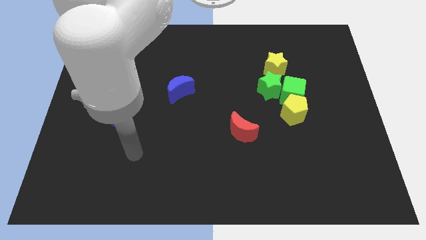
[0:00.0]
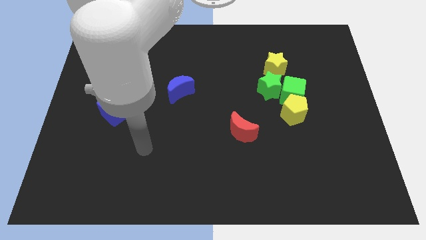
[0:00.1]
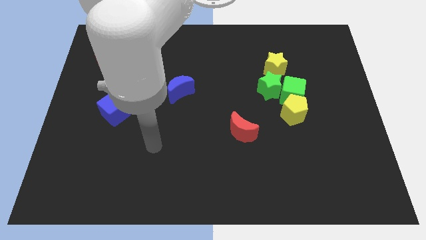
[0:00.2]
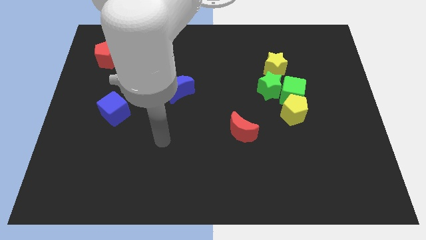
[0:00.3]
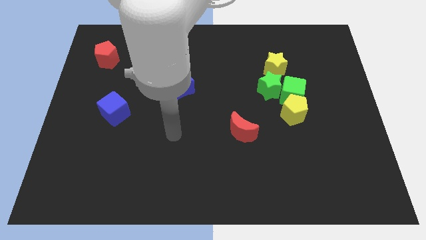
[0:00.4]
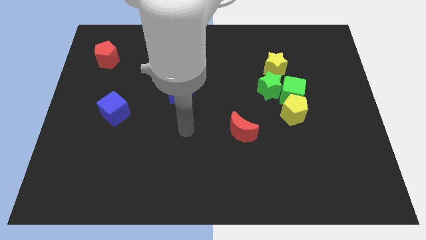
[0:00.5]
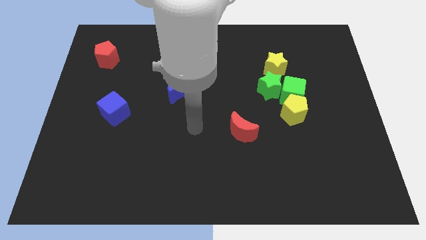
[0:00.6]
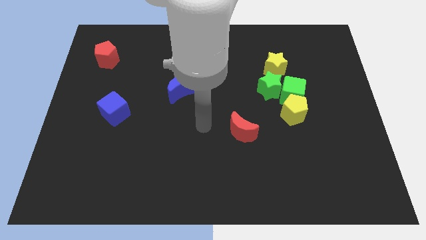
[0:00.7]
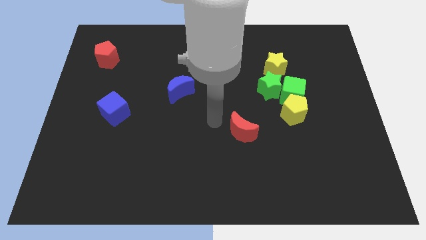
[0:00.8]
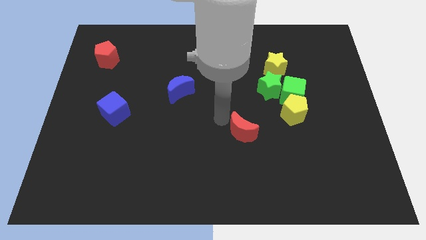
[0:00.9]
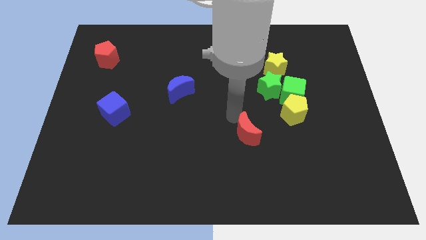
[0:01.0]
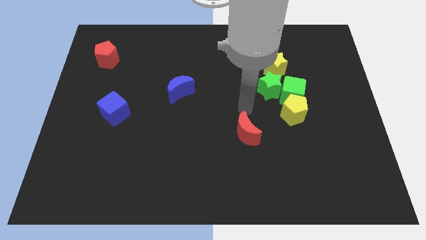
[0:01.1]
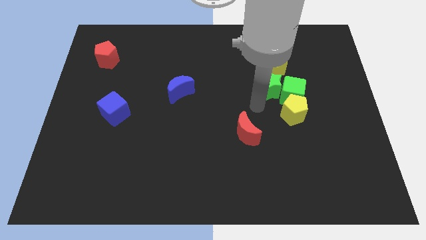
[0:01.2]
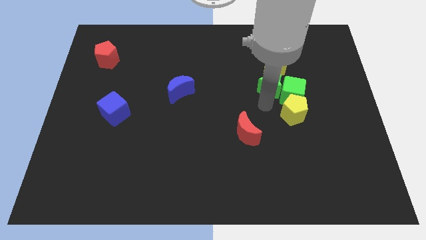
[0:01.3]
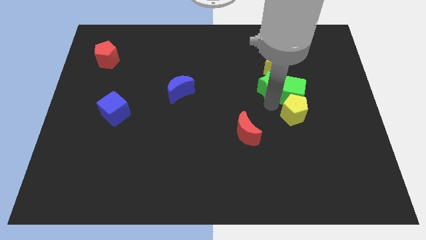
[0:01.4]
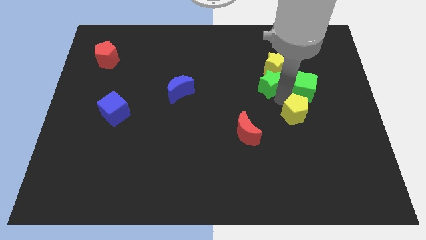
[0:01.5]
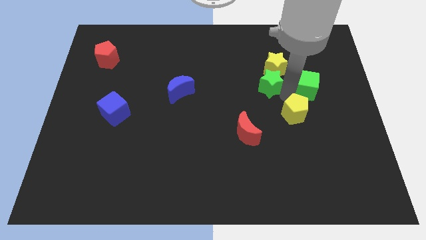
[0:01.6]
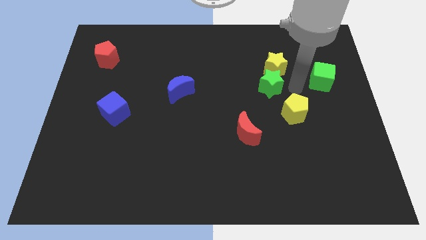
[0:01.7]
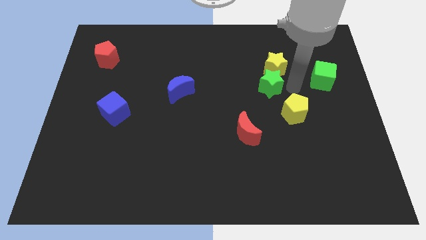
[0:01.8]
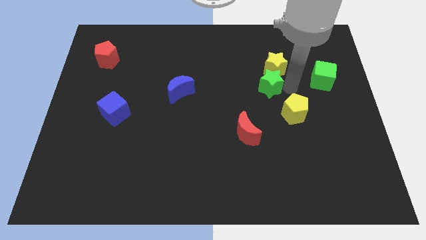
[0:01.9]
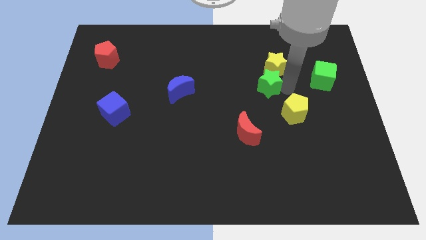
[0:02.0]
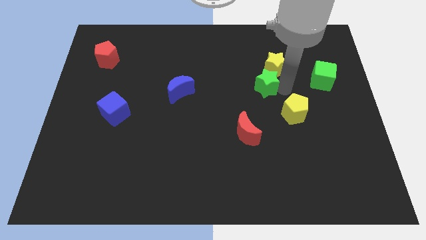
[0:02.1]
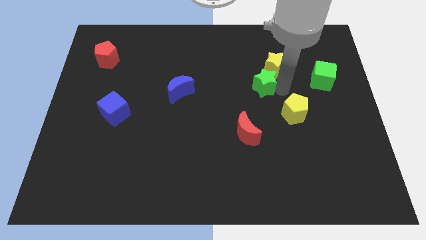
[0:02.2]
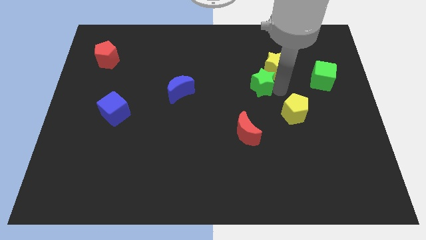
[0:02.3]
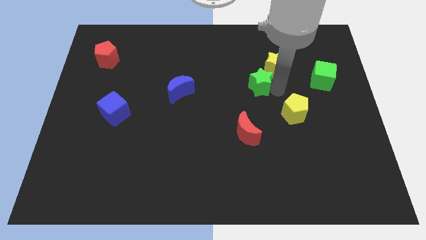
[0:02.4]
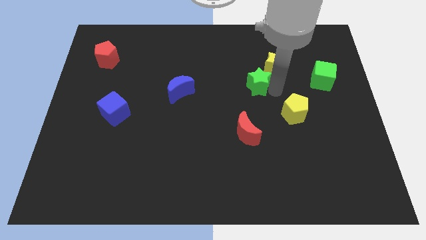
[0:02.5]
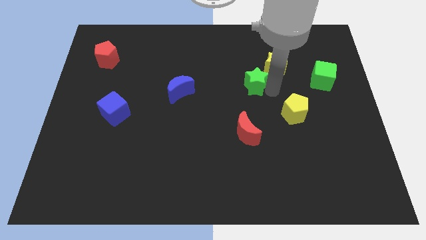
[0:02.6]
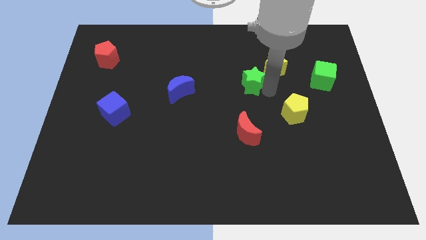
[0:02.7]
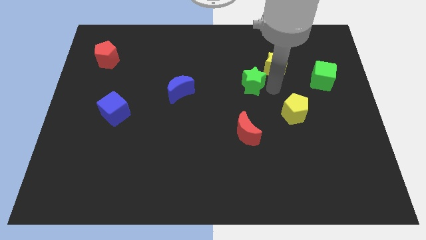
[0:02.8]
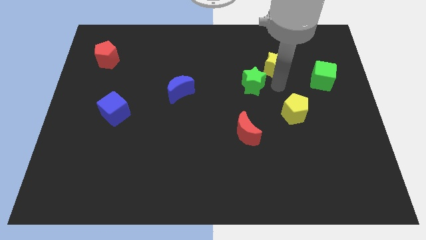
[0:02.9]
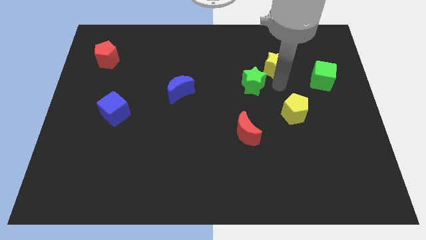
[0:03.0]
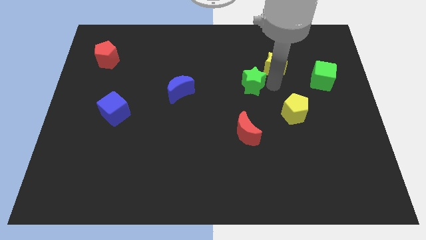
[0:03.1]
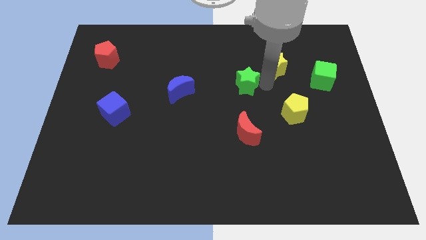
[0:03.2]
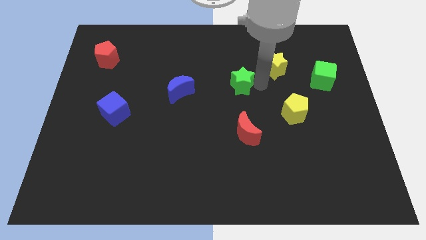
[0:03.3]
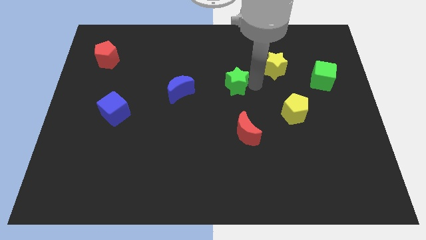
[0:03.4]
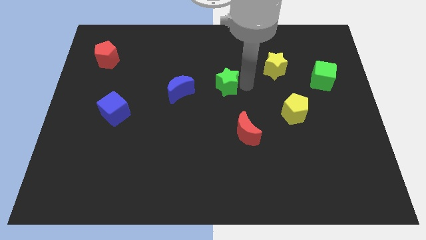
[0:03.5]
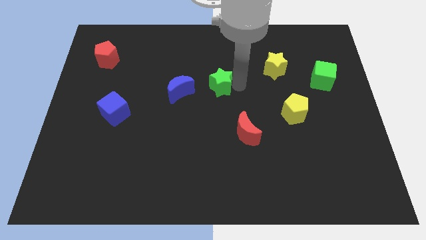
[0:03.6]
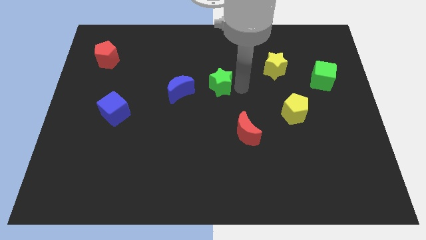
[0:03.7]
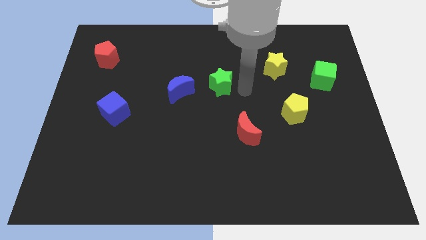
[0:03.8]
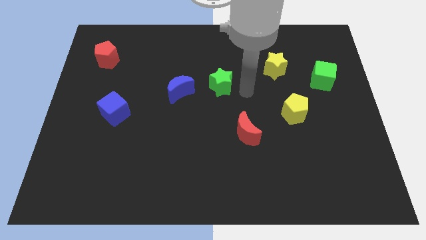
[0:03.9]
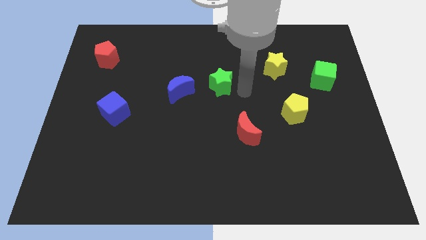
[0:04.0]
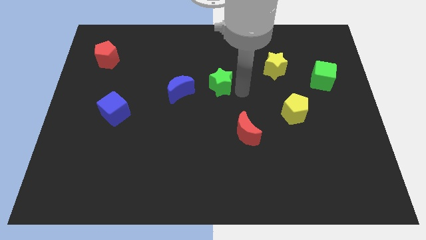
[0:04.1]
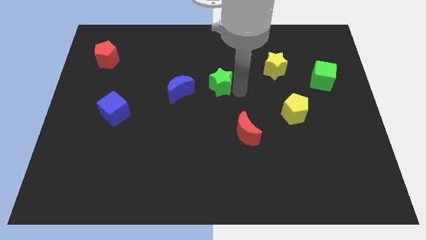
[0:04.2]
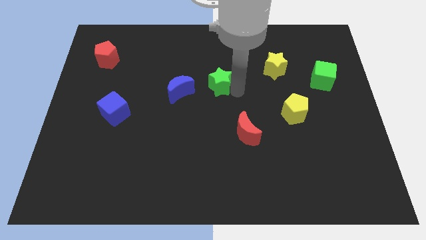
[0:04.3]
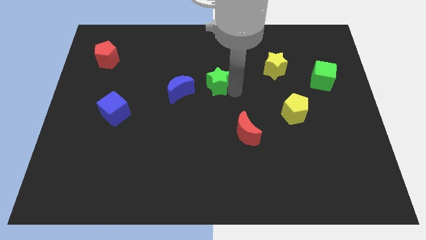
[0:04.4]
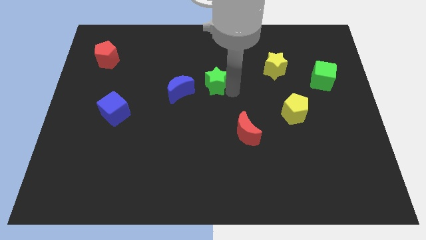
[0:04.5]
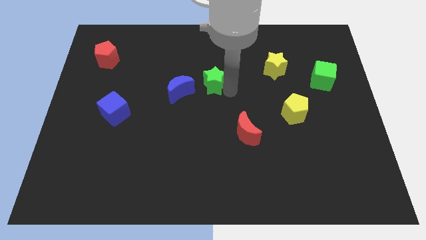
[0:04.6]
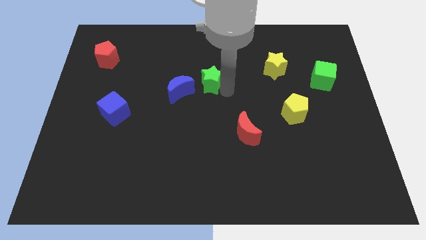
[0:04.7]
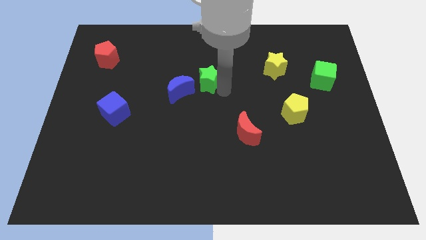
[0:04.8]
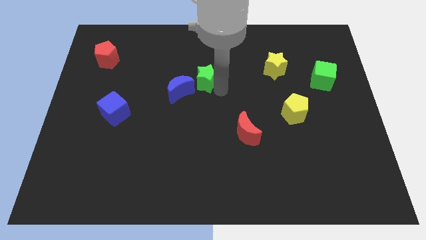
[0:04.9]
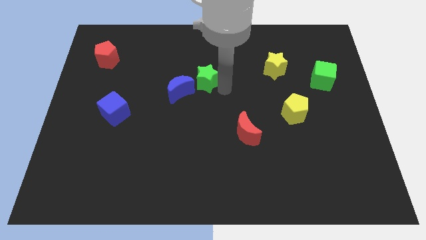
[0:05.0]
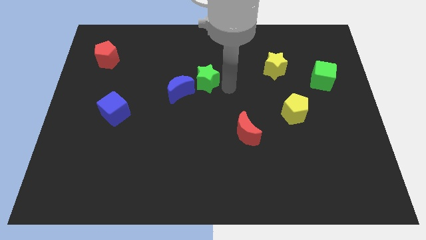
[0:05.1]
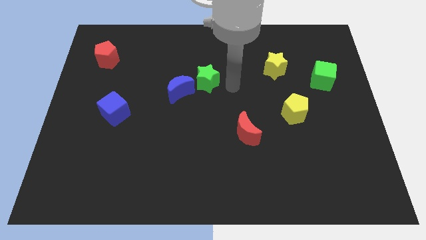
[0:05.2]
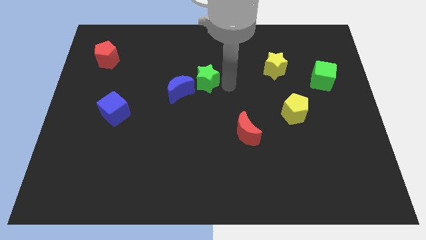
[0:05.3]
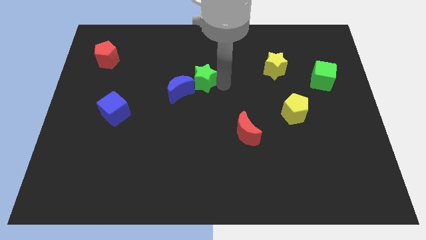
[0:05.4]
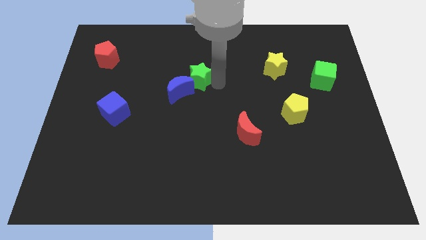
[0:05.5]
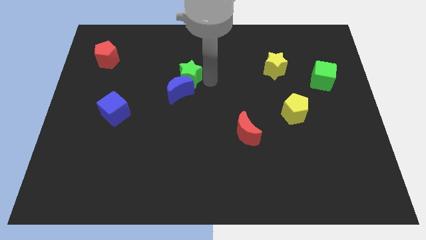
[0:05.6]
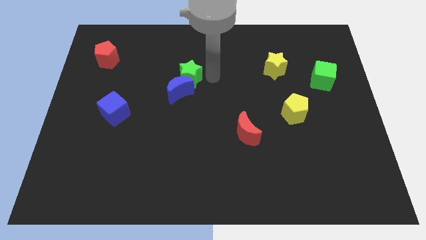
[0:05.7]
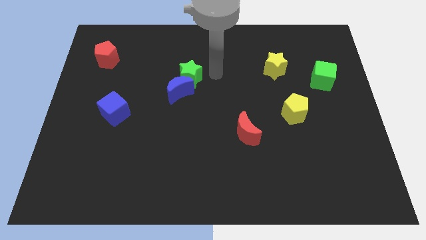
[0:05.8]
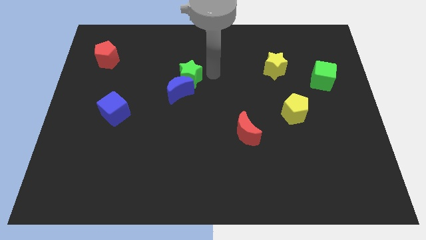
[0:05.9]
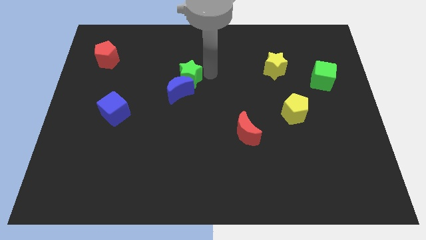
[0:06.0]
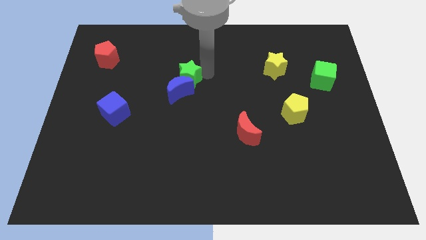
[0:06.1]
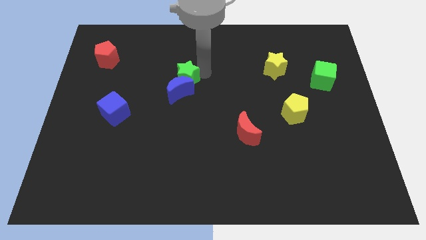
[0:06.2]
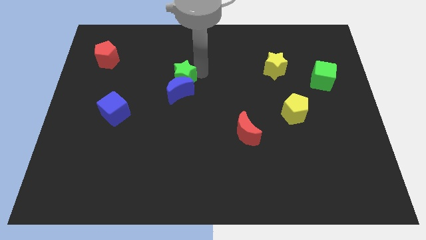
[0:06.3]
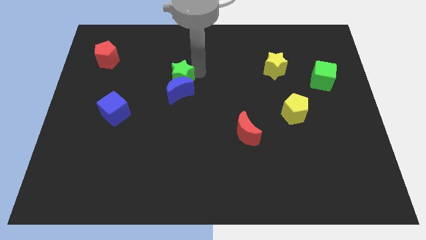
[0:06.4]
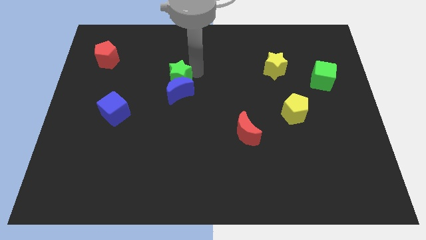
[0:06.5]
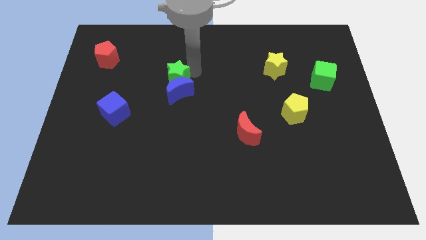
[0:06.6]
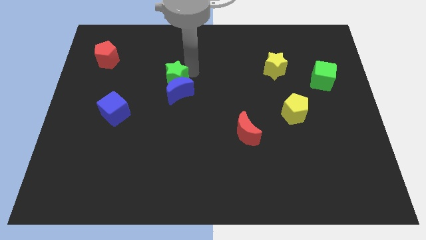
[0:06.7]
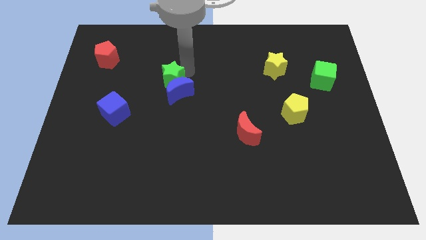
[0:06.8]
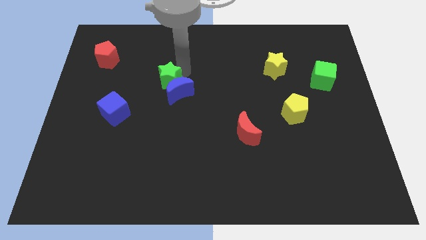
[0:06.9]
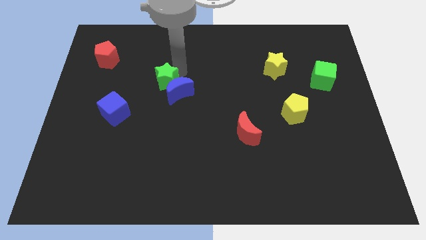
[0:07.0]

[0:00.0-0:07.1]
put the green star just left of the blue moon
